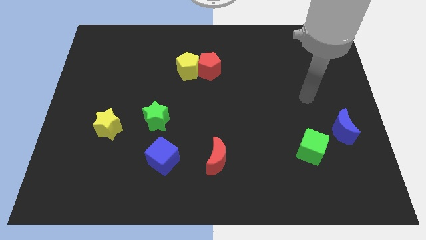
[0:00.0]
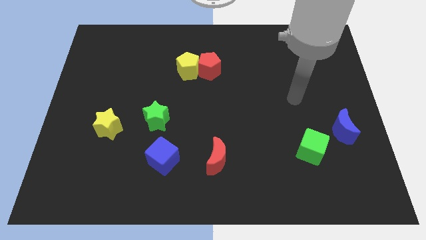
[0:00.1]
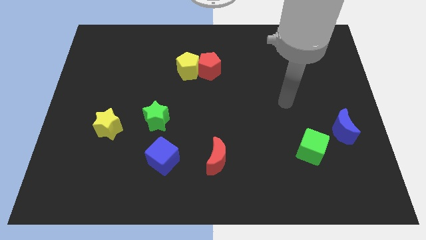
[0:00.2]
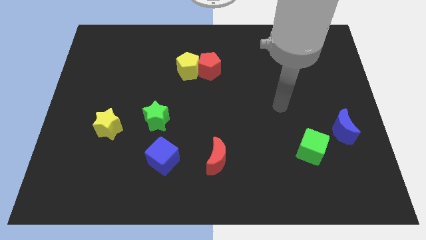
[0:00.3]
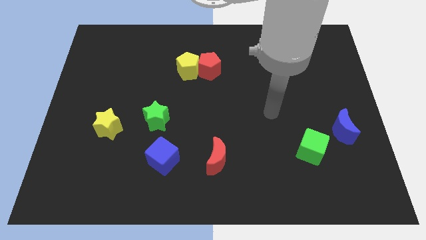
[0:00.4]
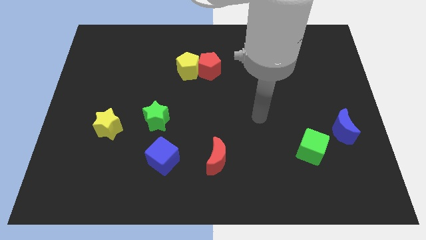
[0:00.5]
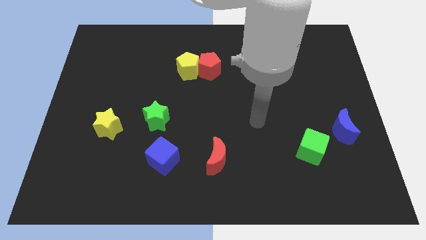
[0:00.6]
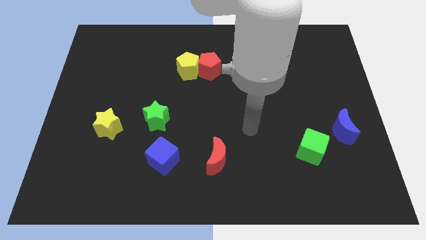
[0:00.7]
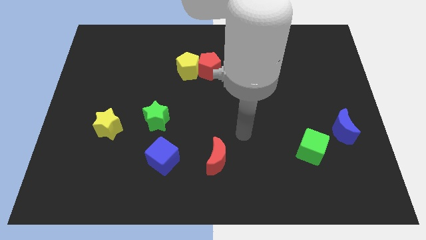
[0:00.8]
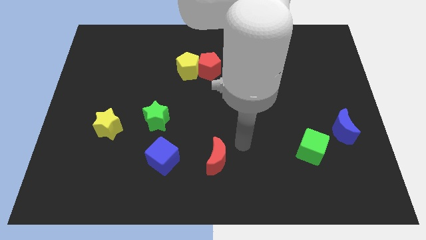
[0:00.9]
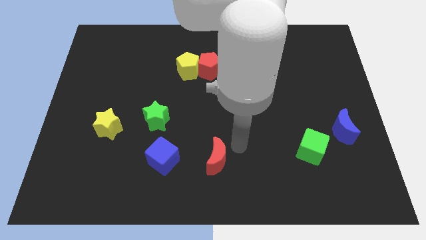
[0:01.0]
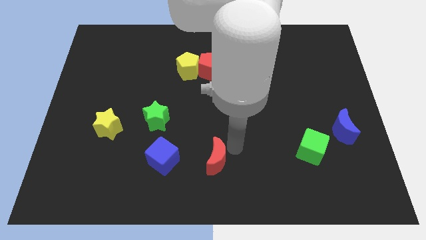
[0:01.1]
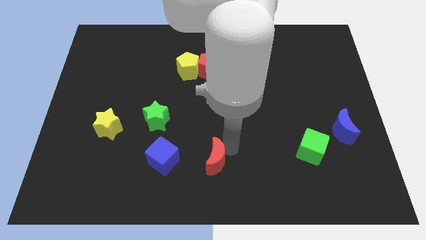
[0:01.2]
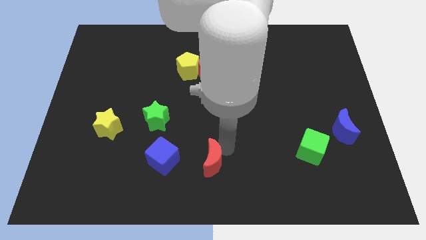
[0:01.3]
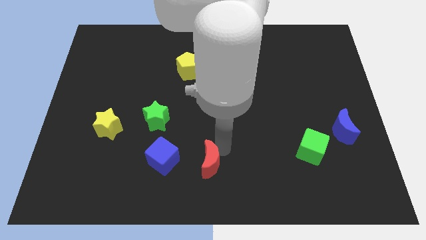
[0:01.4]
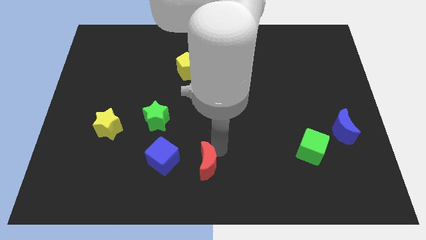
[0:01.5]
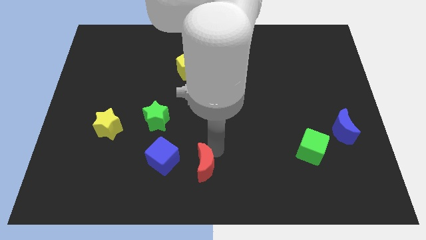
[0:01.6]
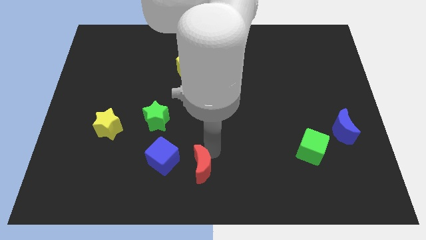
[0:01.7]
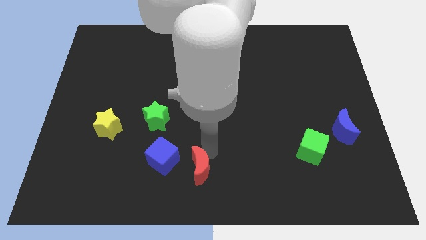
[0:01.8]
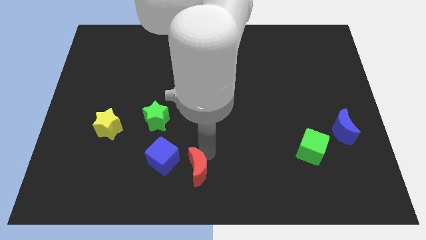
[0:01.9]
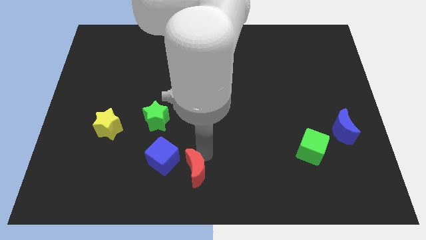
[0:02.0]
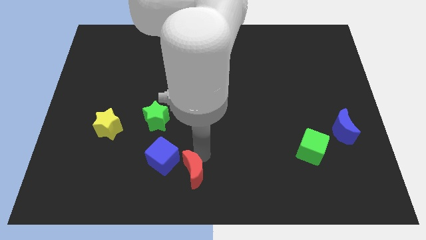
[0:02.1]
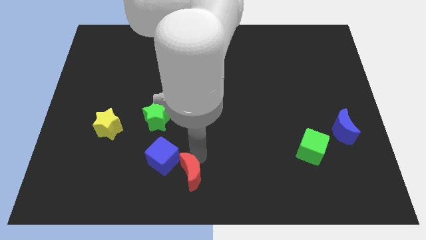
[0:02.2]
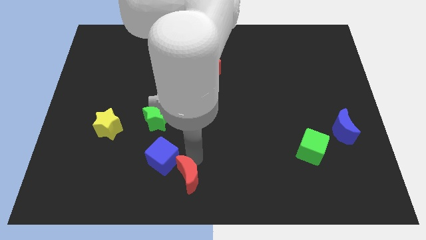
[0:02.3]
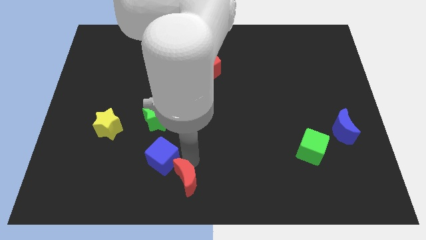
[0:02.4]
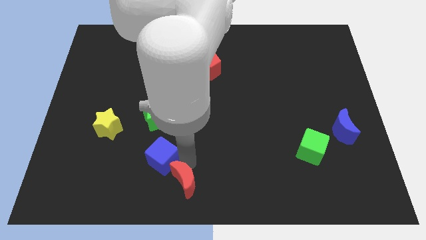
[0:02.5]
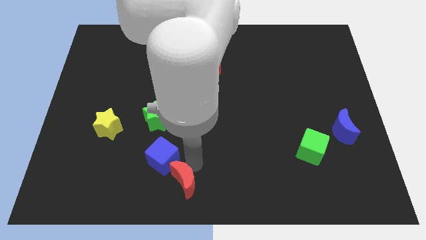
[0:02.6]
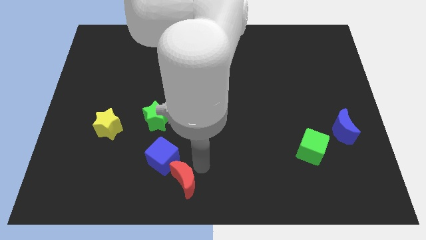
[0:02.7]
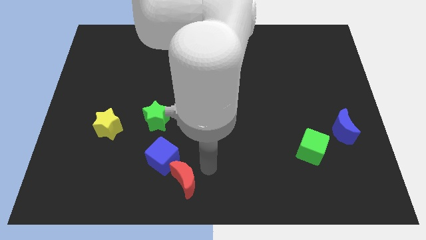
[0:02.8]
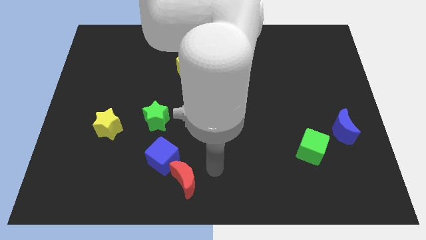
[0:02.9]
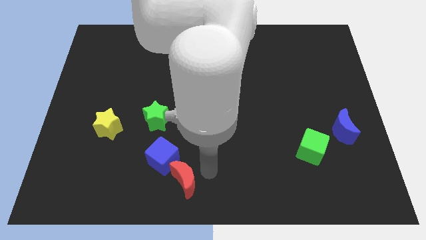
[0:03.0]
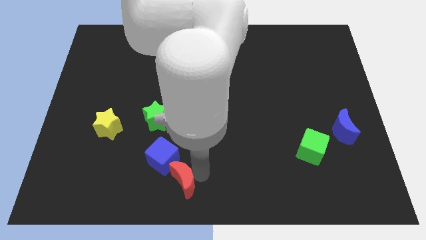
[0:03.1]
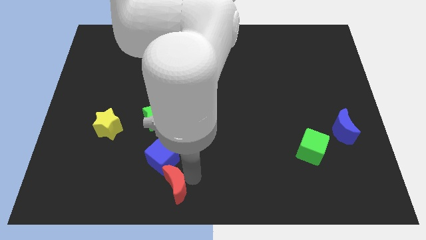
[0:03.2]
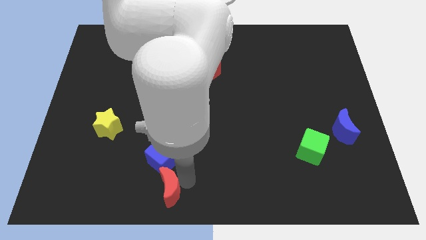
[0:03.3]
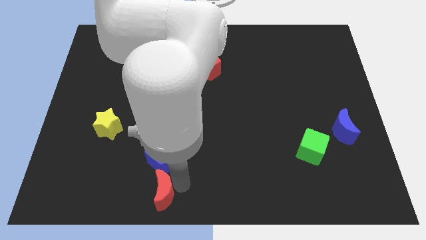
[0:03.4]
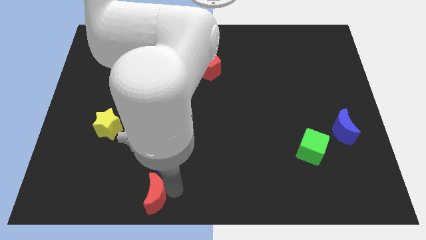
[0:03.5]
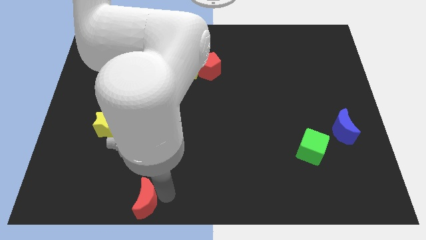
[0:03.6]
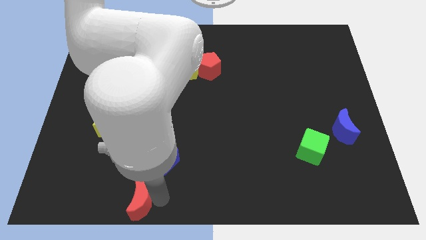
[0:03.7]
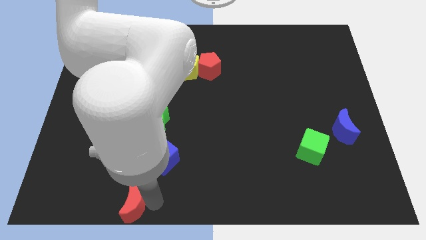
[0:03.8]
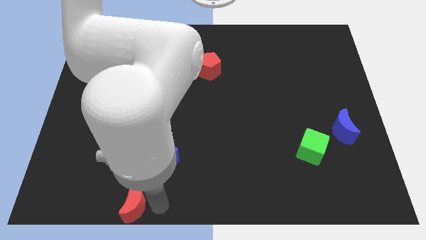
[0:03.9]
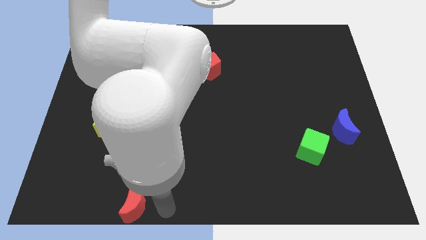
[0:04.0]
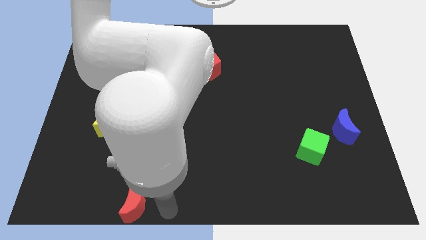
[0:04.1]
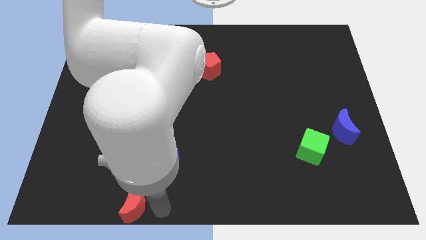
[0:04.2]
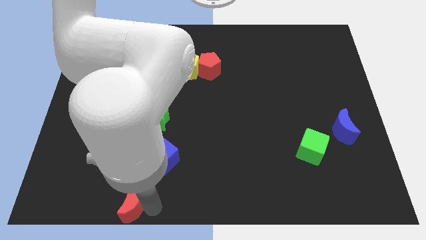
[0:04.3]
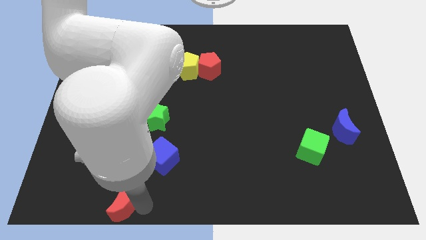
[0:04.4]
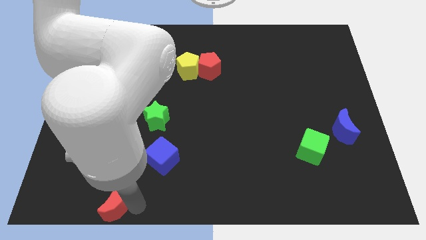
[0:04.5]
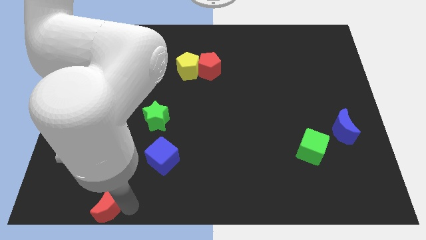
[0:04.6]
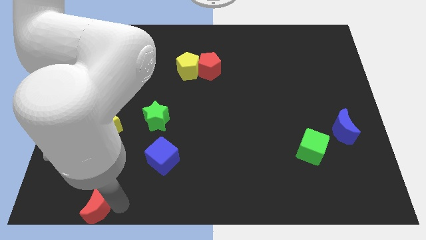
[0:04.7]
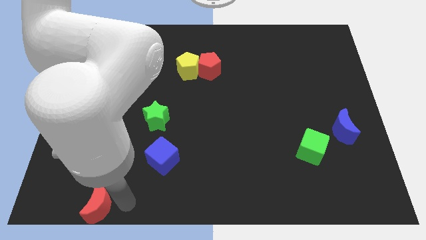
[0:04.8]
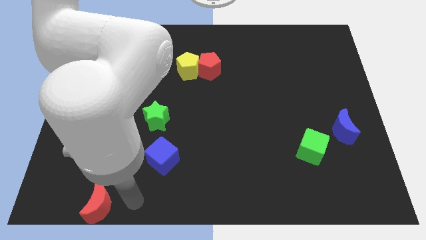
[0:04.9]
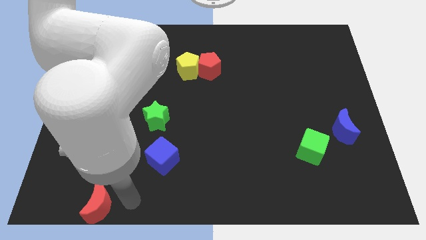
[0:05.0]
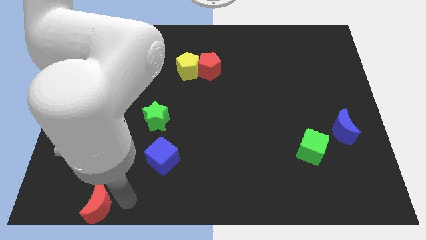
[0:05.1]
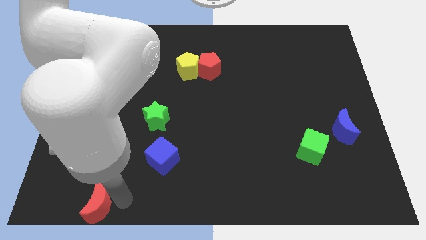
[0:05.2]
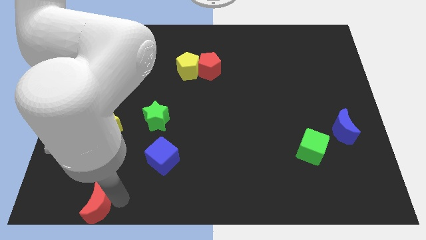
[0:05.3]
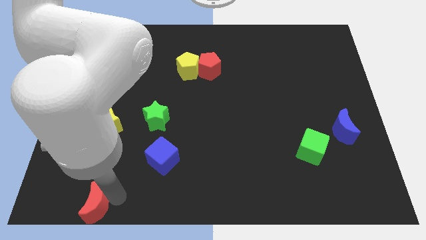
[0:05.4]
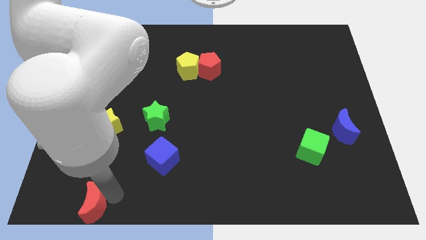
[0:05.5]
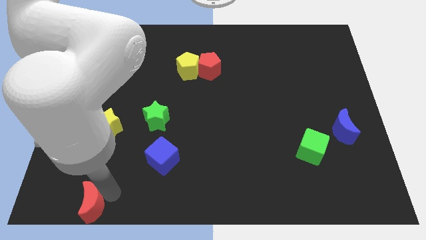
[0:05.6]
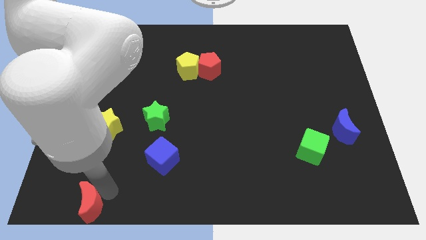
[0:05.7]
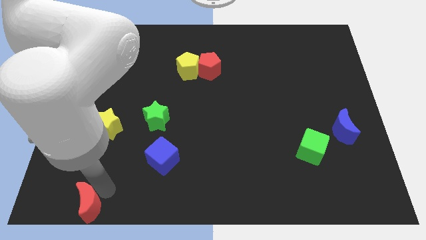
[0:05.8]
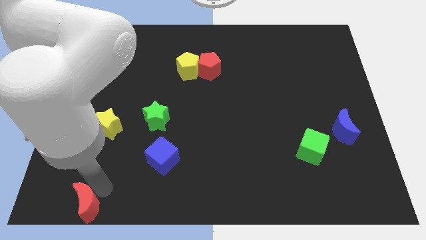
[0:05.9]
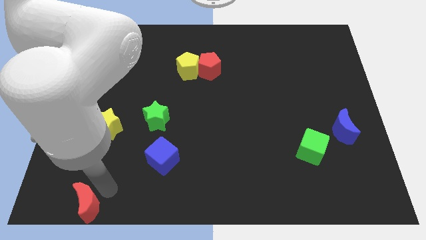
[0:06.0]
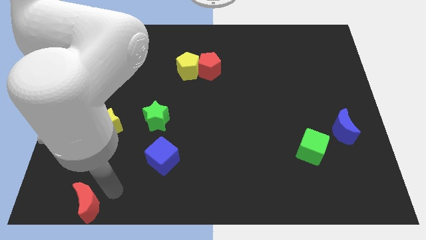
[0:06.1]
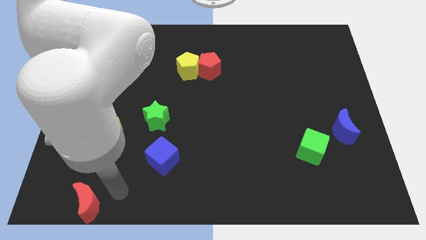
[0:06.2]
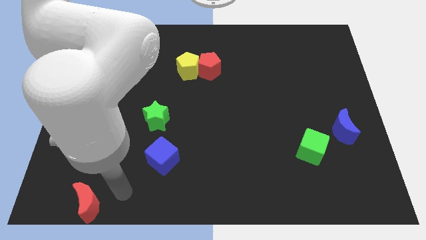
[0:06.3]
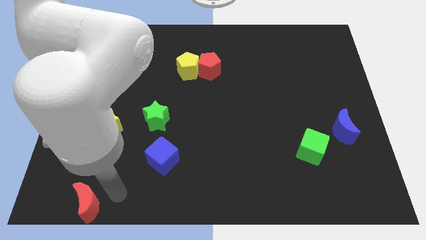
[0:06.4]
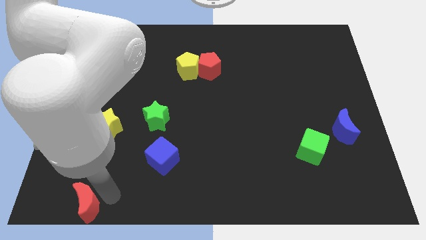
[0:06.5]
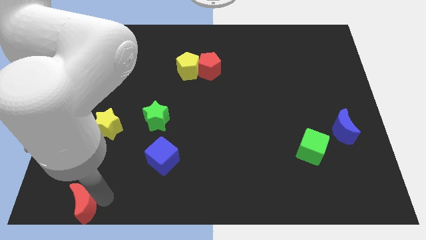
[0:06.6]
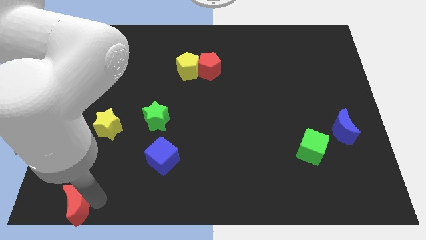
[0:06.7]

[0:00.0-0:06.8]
put the red moon to the bottom left of the board

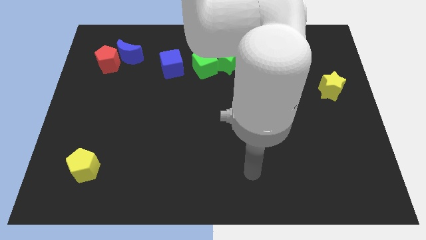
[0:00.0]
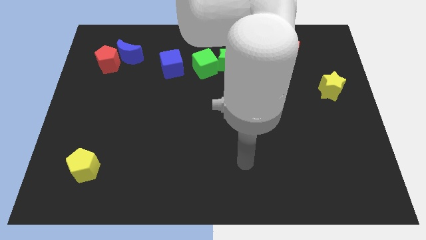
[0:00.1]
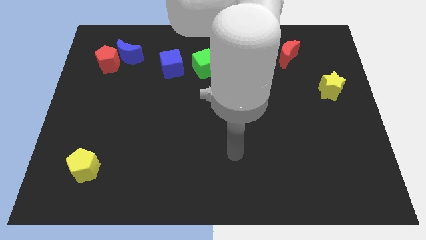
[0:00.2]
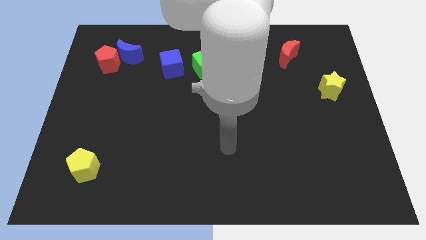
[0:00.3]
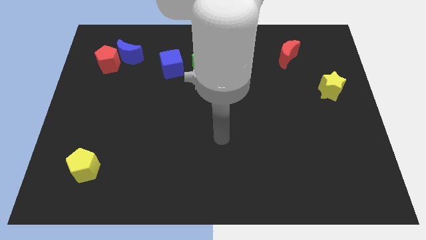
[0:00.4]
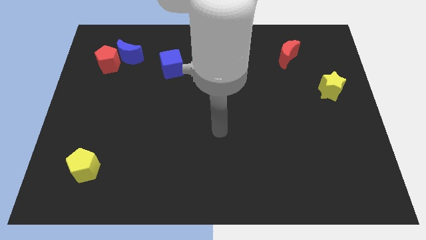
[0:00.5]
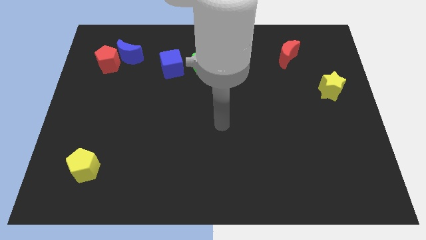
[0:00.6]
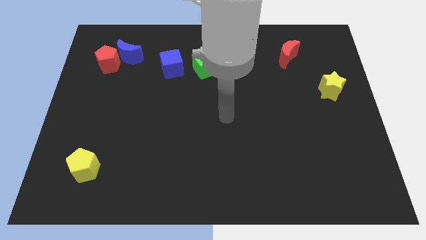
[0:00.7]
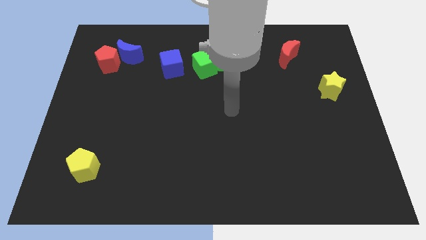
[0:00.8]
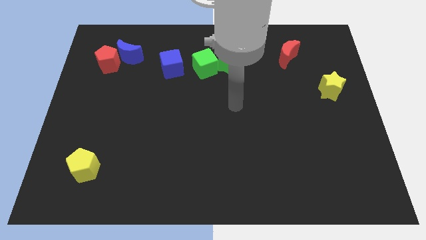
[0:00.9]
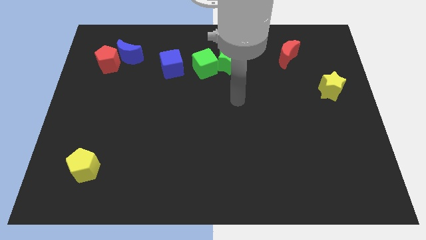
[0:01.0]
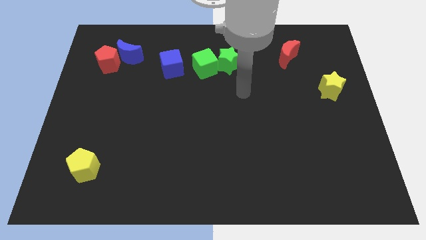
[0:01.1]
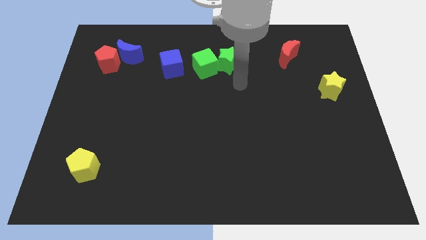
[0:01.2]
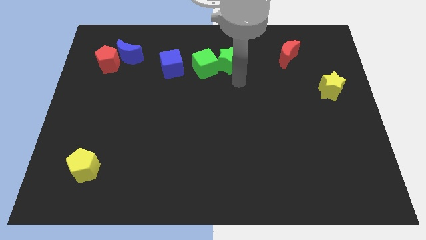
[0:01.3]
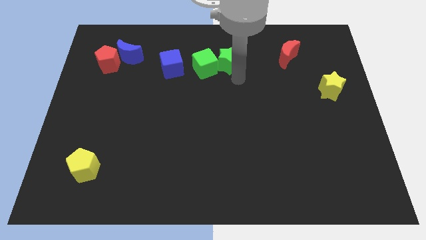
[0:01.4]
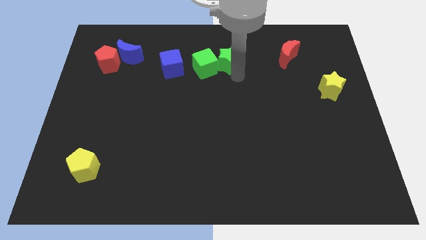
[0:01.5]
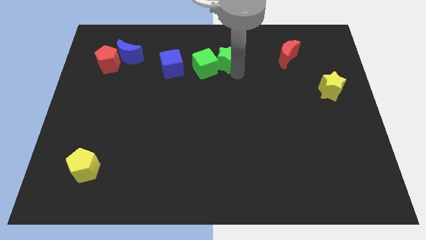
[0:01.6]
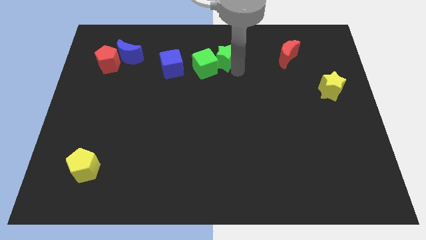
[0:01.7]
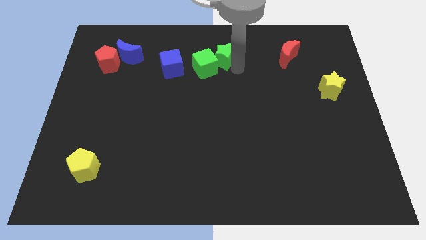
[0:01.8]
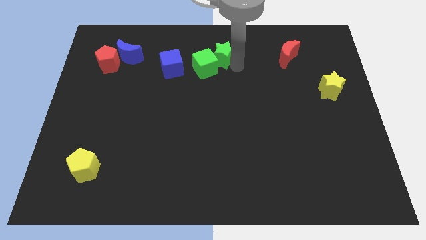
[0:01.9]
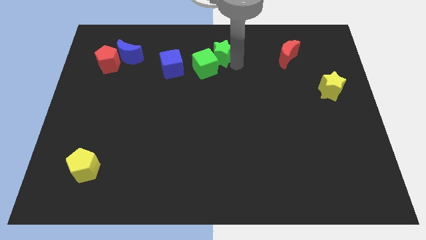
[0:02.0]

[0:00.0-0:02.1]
put the green star to the towards your base
